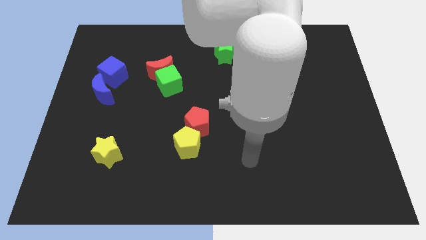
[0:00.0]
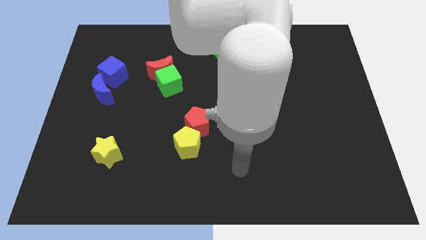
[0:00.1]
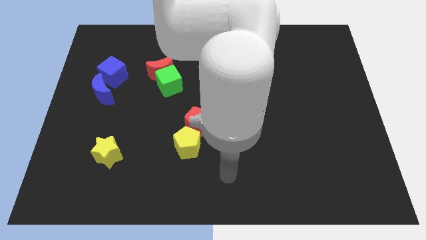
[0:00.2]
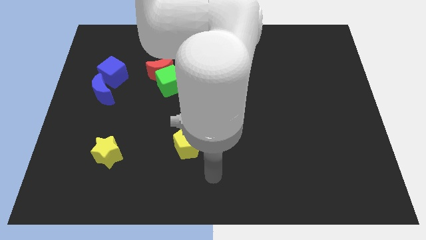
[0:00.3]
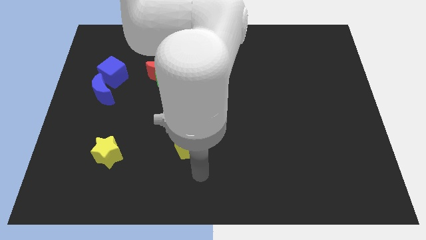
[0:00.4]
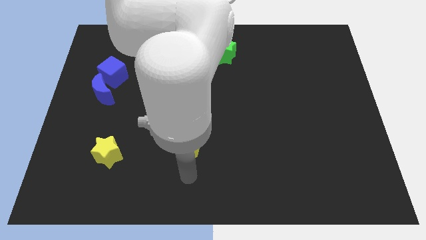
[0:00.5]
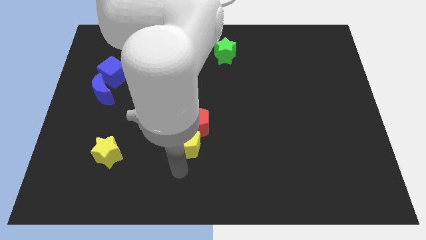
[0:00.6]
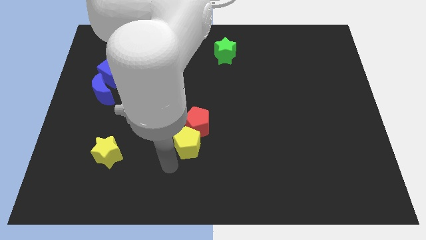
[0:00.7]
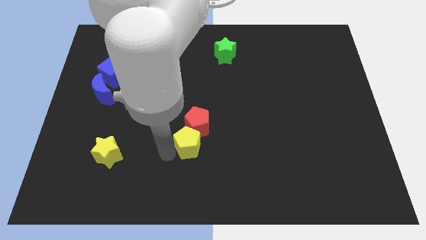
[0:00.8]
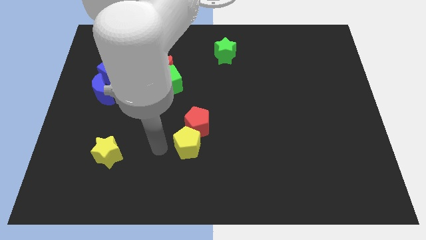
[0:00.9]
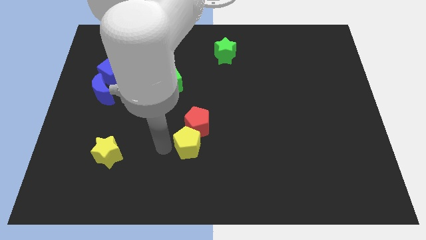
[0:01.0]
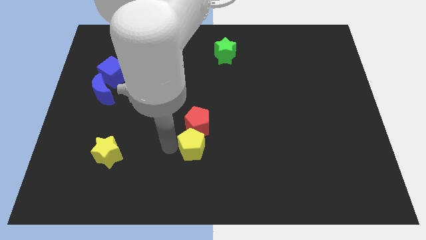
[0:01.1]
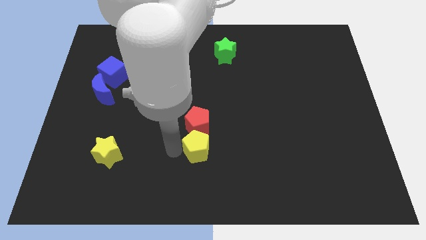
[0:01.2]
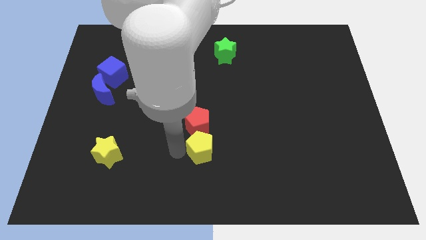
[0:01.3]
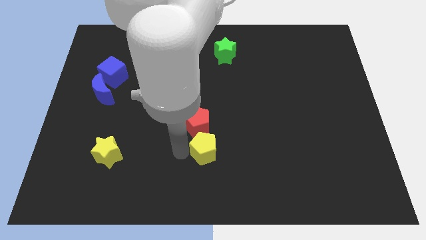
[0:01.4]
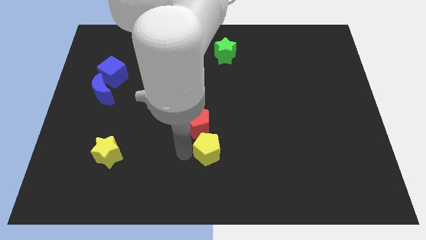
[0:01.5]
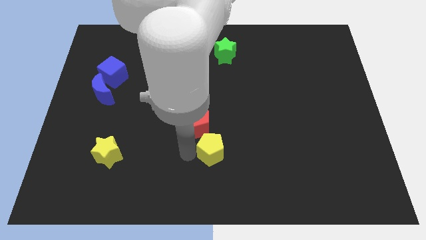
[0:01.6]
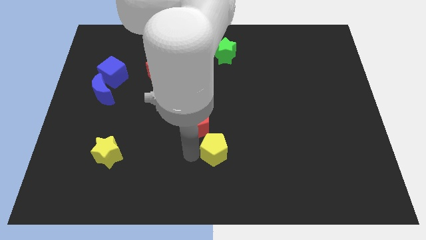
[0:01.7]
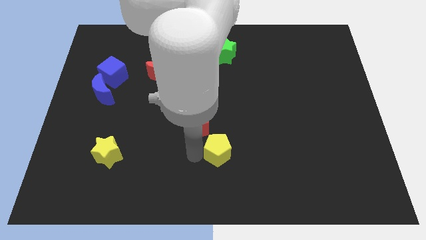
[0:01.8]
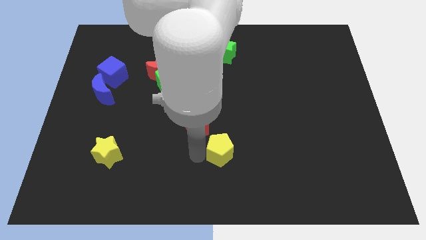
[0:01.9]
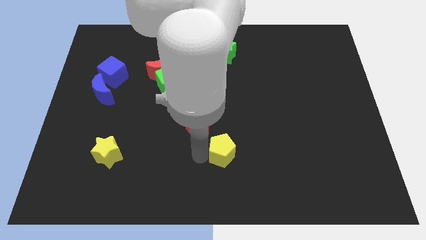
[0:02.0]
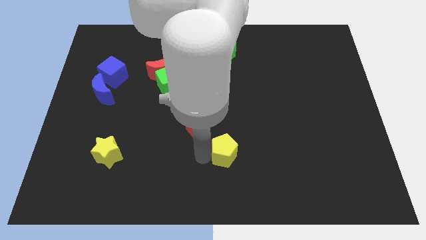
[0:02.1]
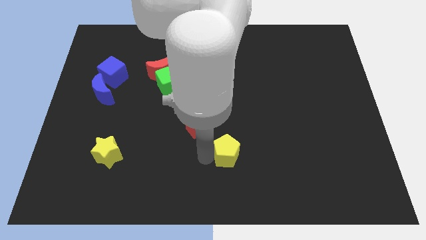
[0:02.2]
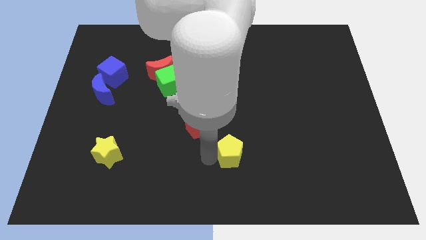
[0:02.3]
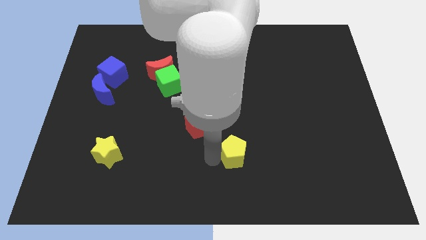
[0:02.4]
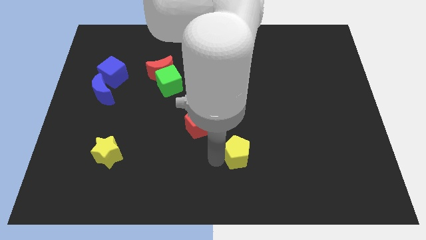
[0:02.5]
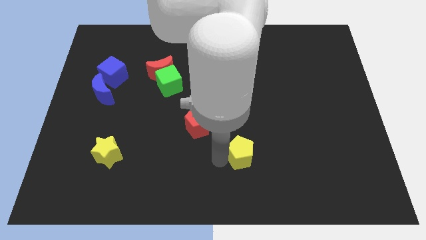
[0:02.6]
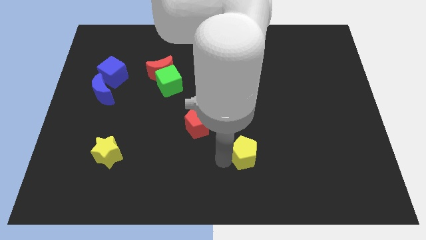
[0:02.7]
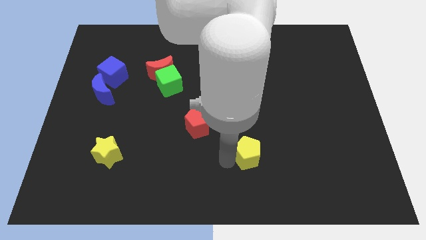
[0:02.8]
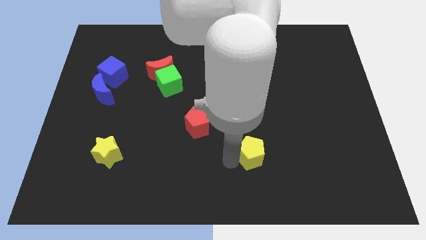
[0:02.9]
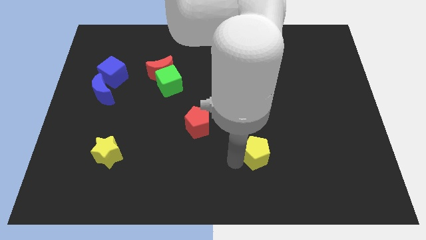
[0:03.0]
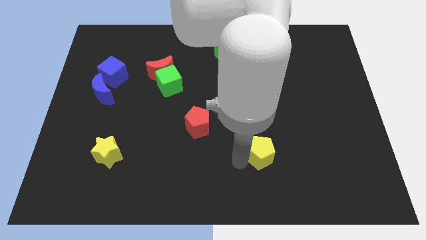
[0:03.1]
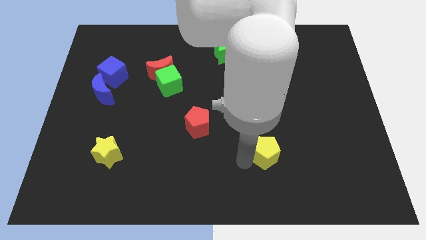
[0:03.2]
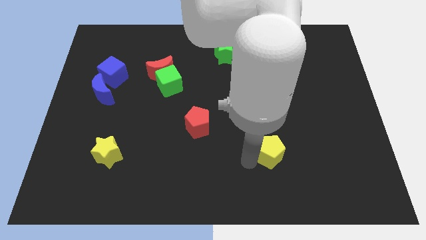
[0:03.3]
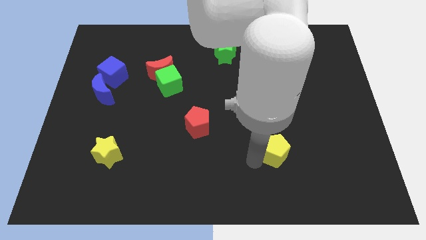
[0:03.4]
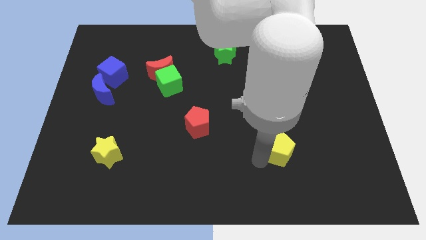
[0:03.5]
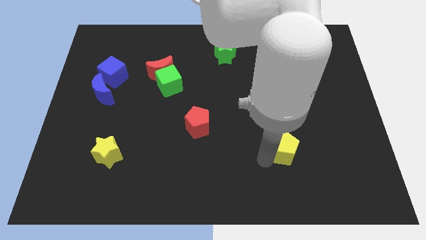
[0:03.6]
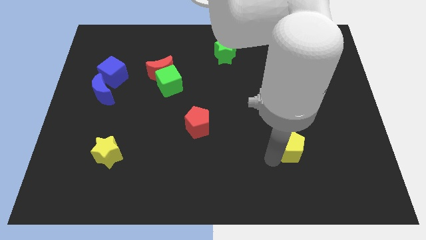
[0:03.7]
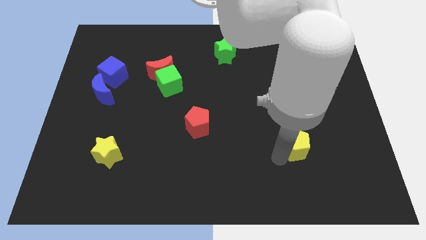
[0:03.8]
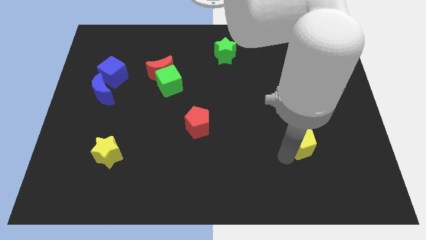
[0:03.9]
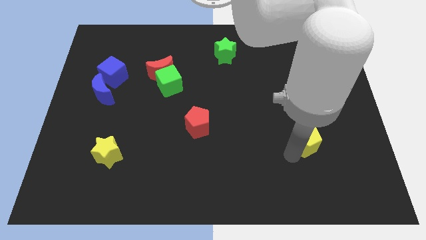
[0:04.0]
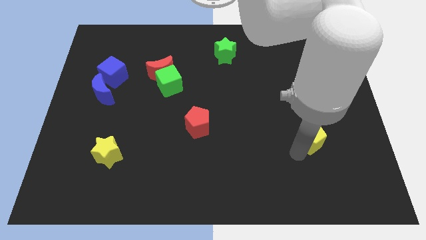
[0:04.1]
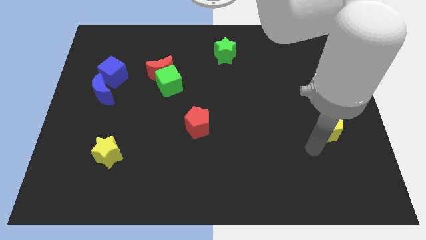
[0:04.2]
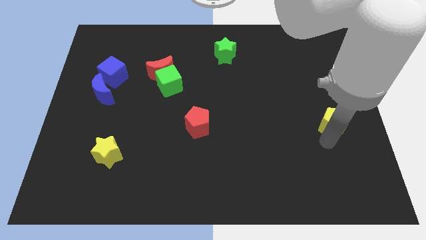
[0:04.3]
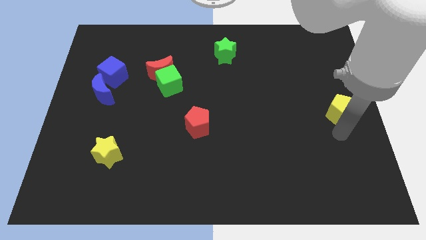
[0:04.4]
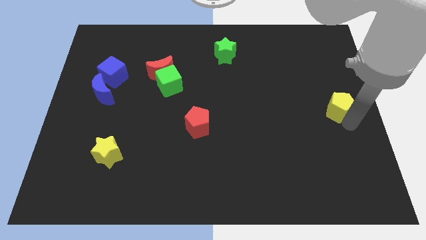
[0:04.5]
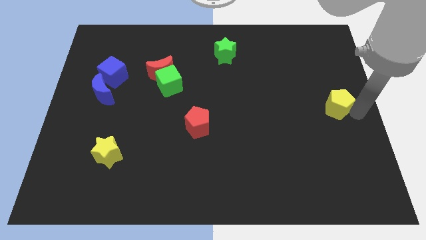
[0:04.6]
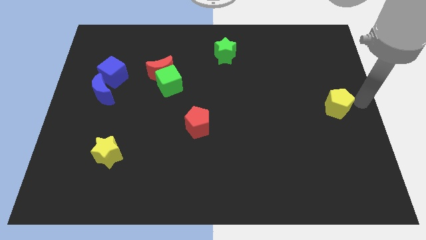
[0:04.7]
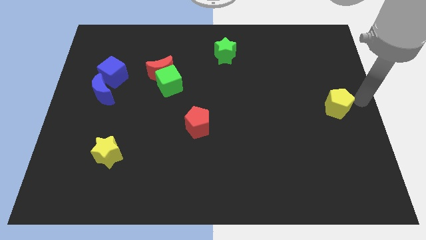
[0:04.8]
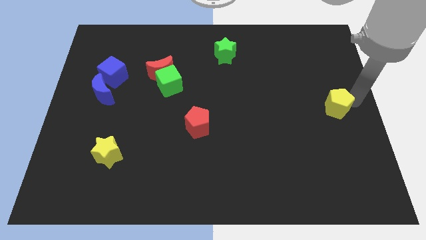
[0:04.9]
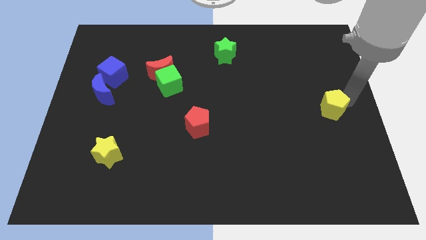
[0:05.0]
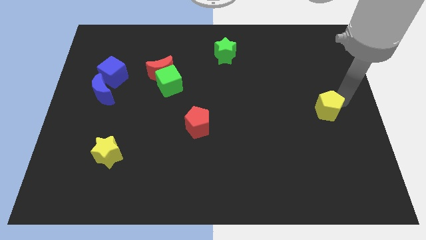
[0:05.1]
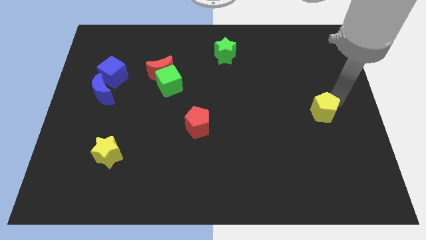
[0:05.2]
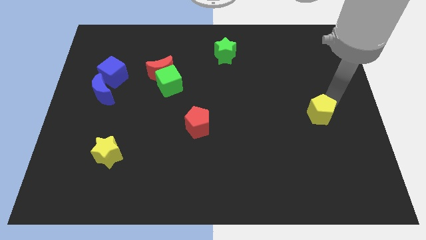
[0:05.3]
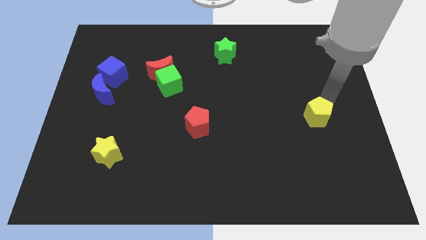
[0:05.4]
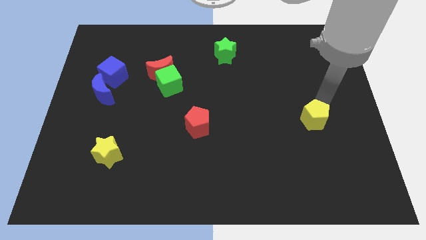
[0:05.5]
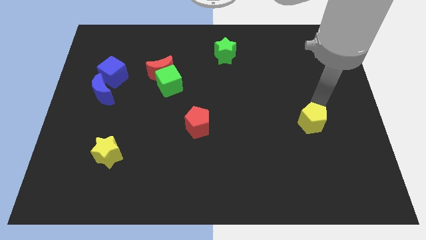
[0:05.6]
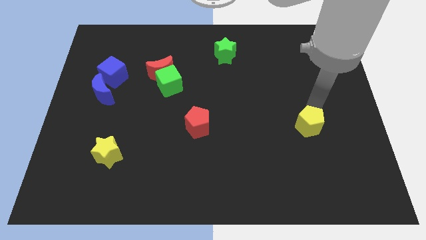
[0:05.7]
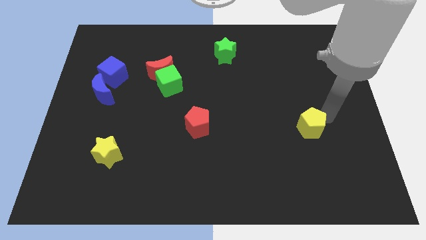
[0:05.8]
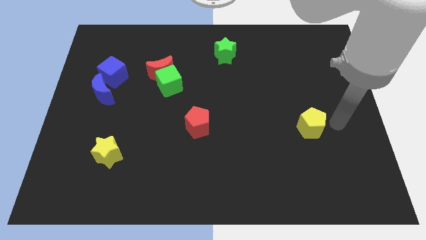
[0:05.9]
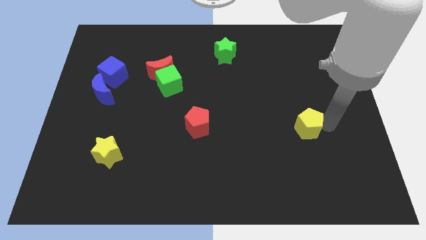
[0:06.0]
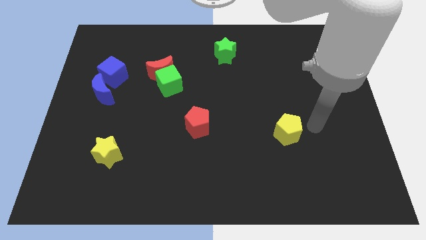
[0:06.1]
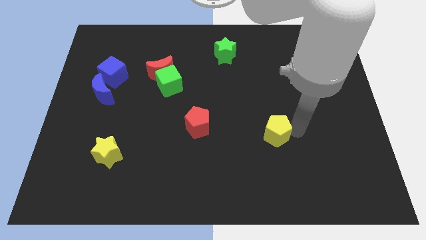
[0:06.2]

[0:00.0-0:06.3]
push the yellow pentagon a bit diagonally upwards and right

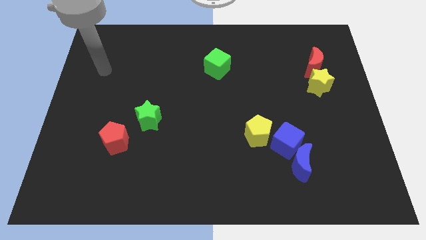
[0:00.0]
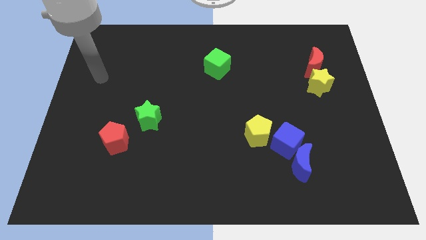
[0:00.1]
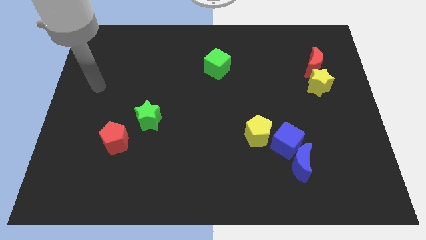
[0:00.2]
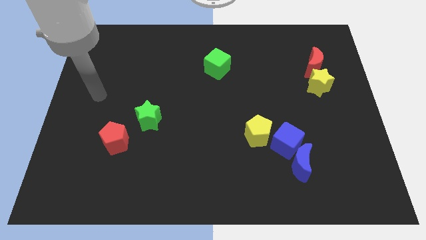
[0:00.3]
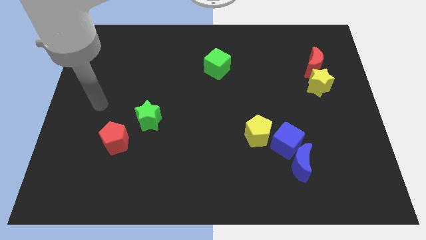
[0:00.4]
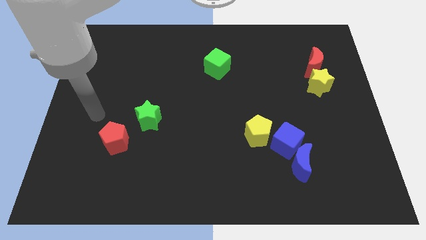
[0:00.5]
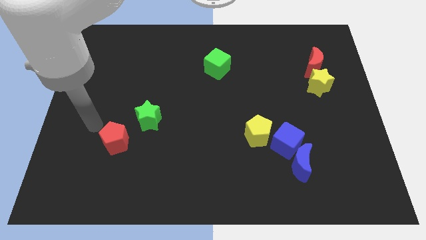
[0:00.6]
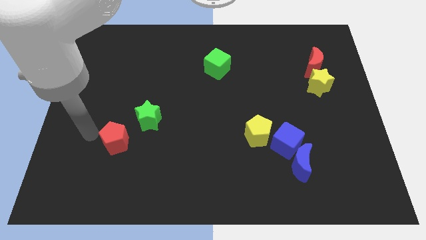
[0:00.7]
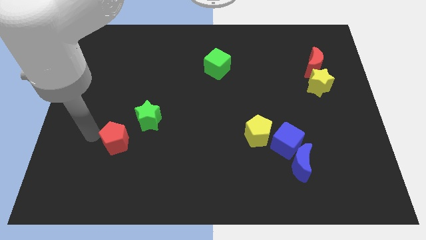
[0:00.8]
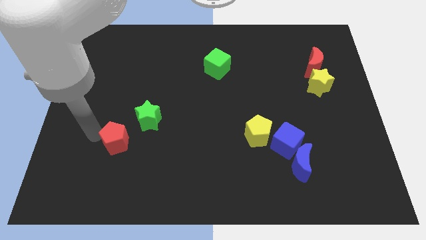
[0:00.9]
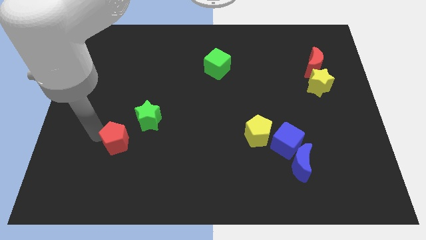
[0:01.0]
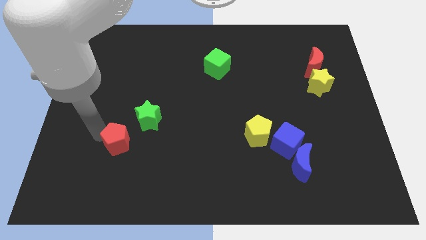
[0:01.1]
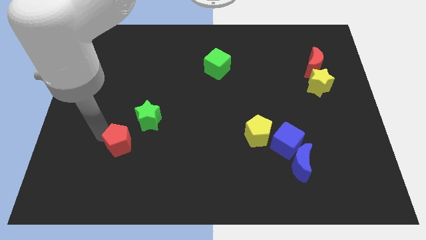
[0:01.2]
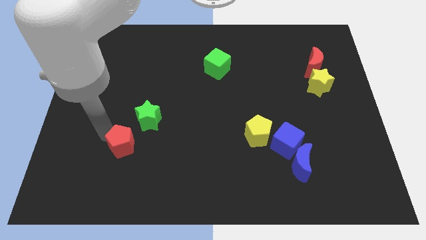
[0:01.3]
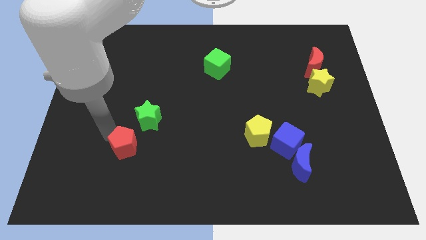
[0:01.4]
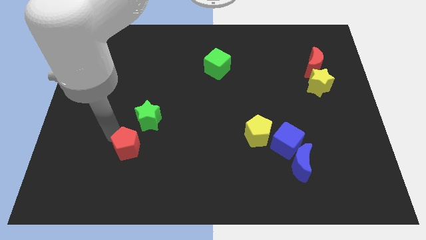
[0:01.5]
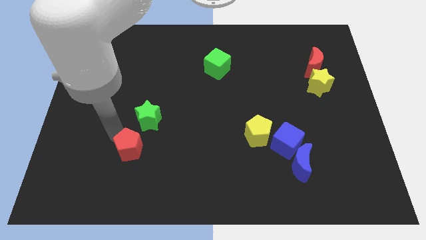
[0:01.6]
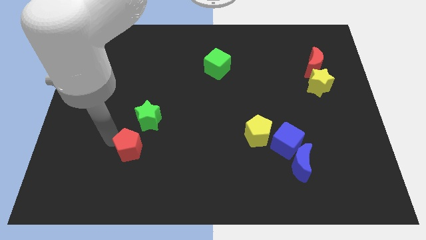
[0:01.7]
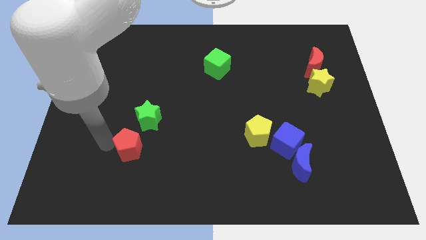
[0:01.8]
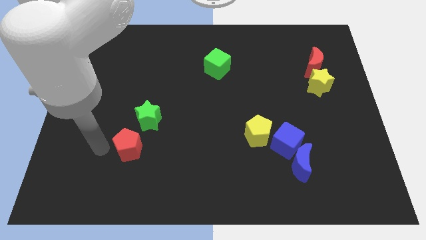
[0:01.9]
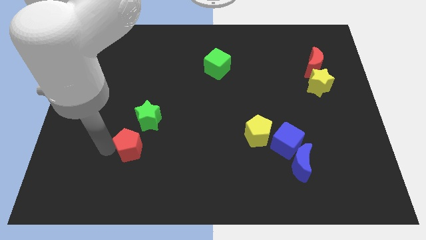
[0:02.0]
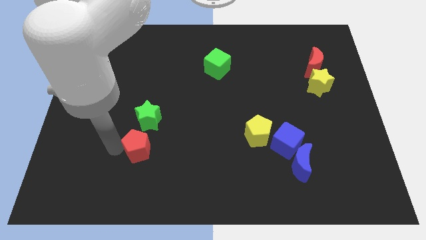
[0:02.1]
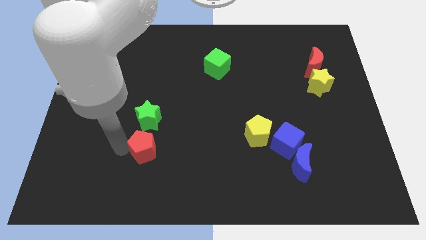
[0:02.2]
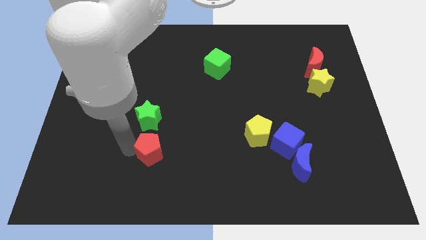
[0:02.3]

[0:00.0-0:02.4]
move the red pentagon a little right
